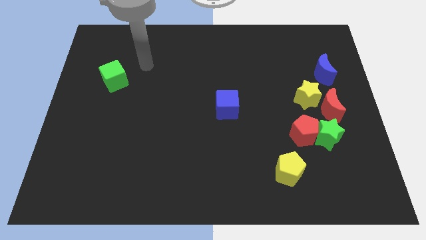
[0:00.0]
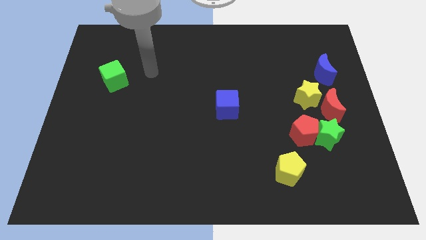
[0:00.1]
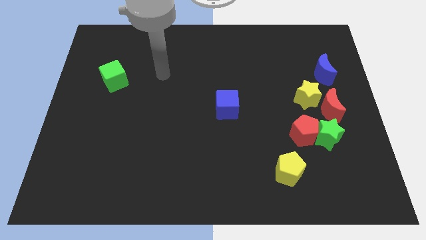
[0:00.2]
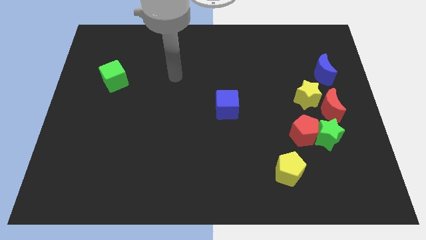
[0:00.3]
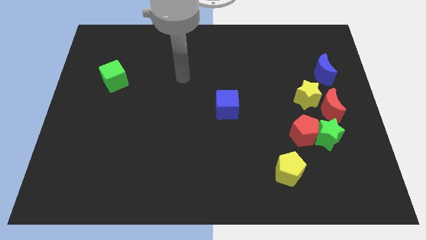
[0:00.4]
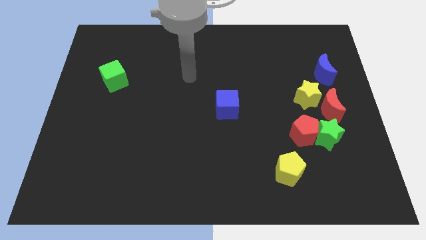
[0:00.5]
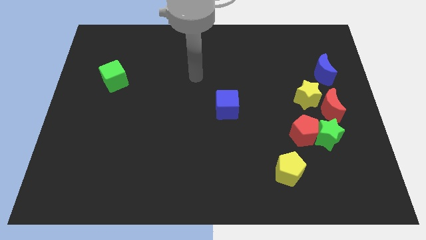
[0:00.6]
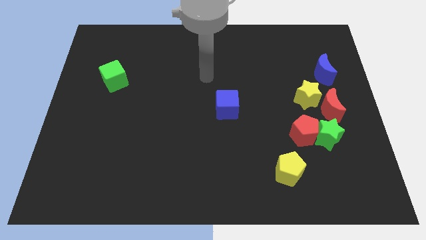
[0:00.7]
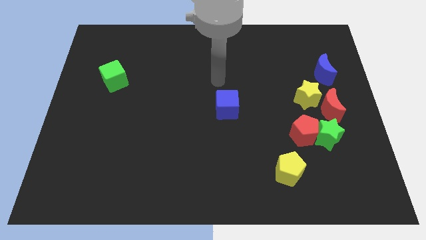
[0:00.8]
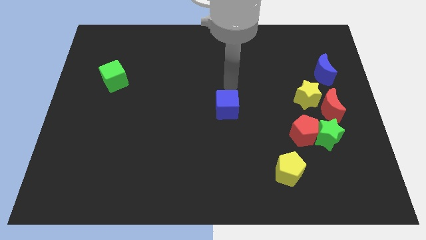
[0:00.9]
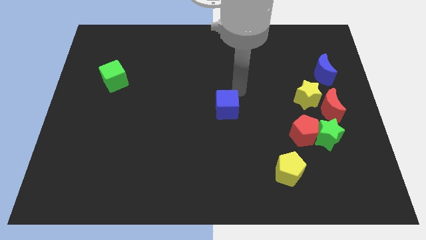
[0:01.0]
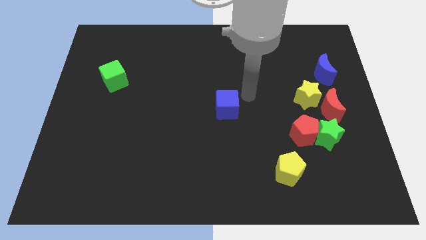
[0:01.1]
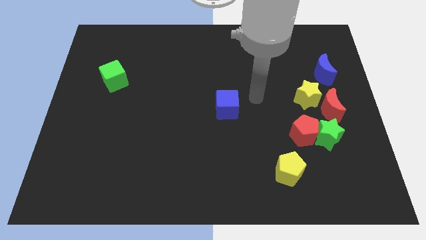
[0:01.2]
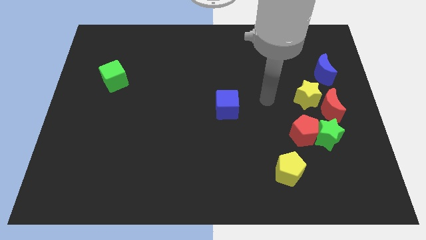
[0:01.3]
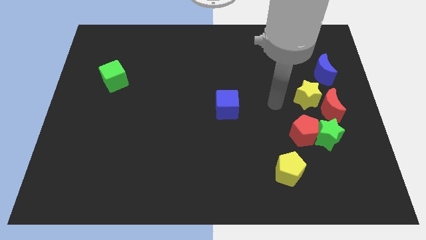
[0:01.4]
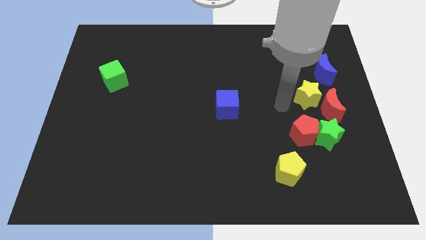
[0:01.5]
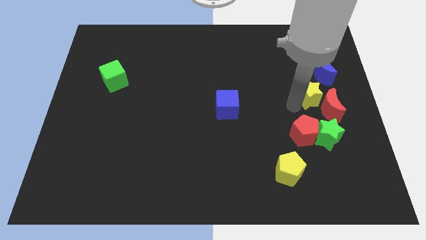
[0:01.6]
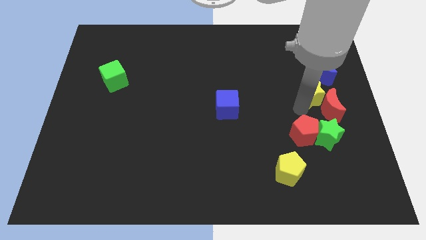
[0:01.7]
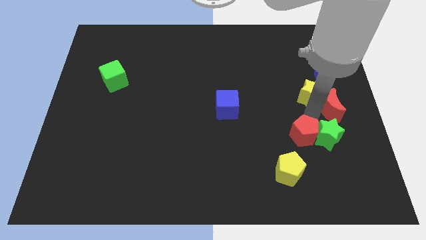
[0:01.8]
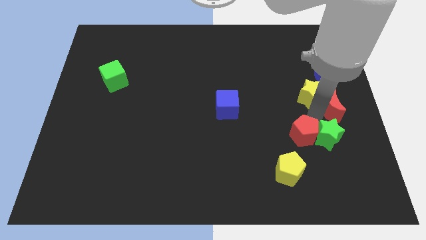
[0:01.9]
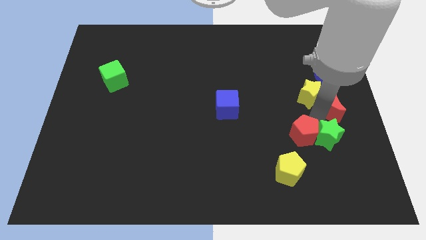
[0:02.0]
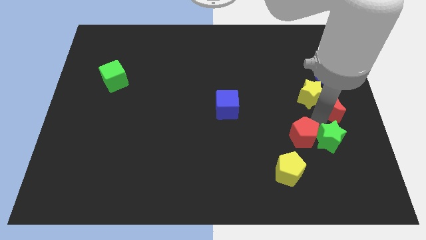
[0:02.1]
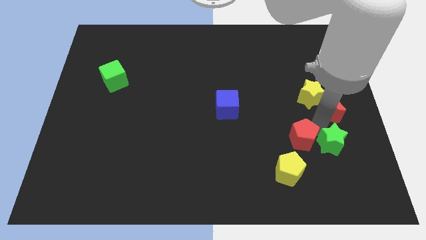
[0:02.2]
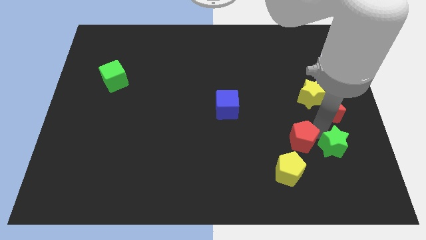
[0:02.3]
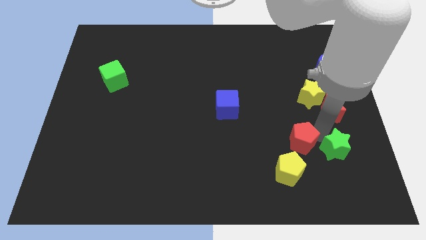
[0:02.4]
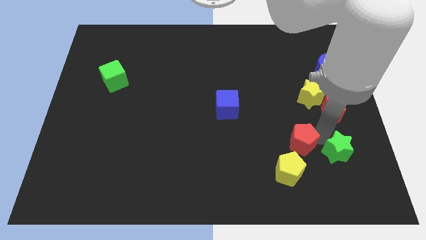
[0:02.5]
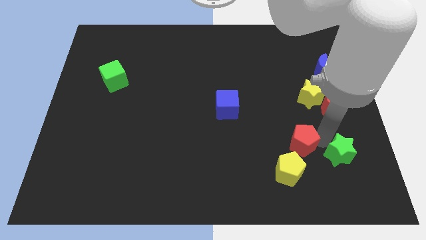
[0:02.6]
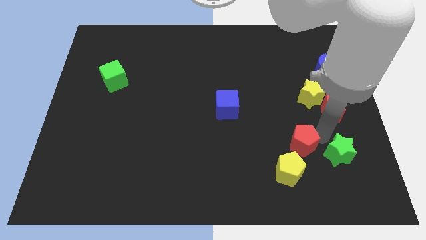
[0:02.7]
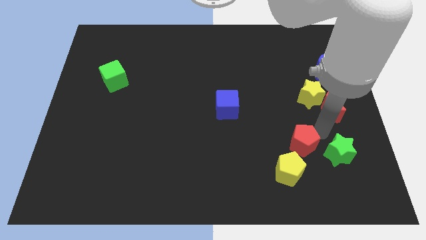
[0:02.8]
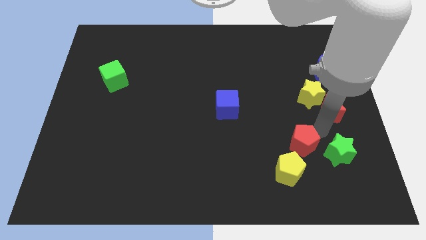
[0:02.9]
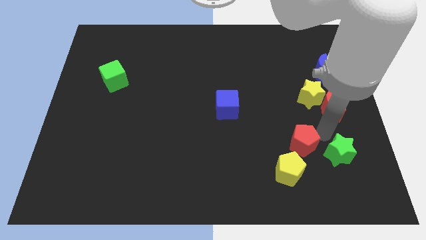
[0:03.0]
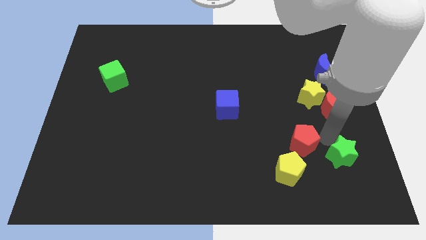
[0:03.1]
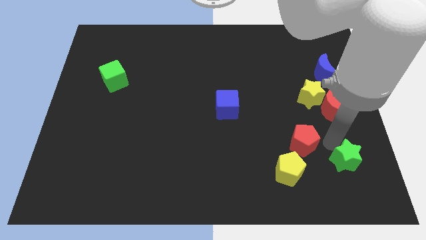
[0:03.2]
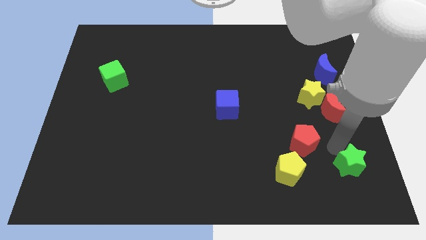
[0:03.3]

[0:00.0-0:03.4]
move the green star away from the red pentagon and red moon

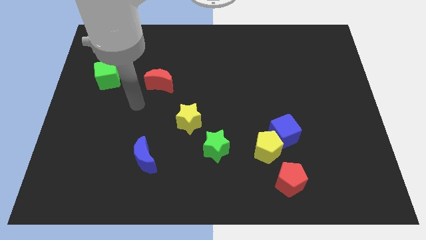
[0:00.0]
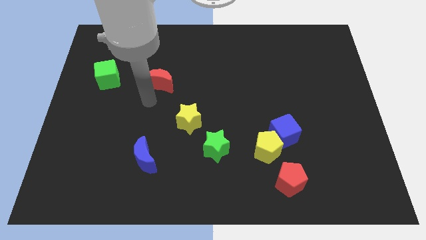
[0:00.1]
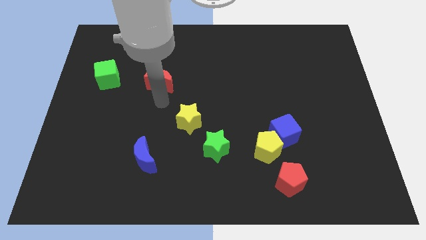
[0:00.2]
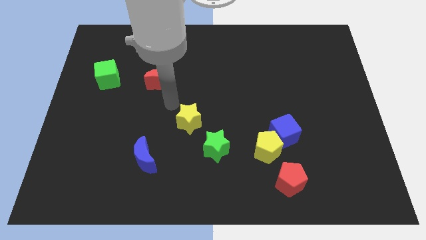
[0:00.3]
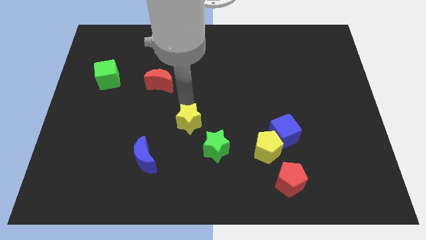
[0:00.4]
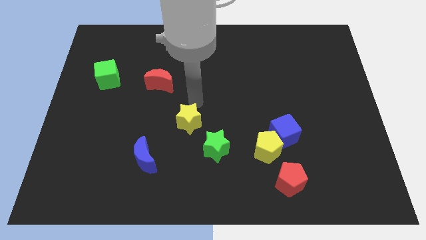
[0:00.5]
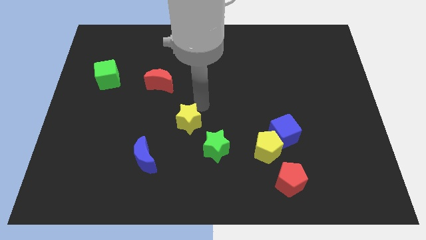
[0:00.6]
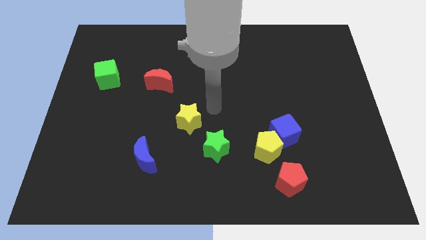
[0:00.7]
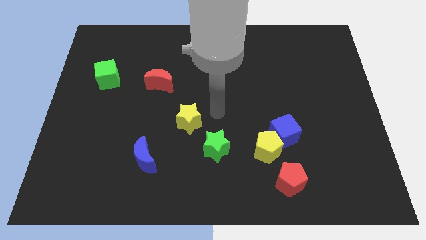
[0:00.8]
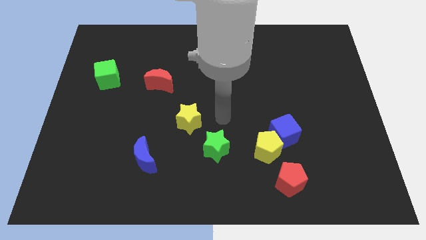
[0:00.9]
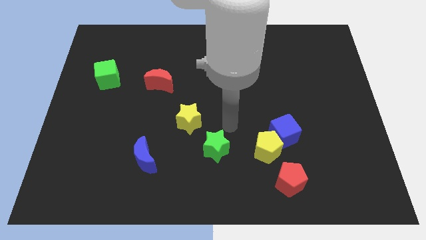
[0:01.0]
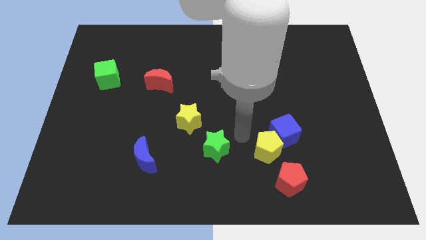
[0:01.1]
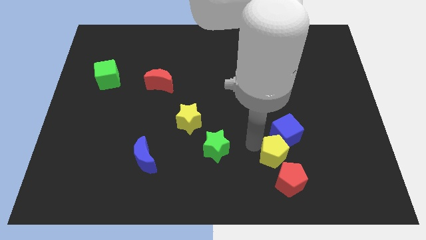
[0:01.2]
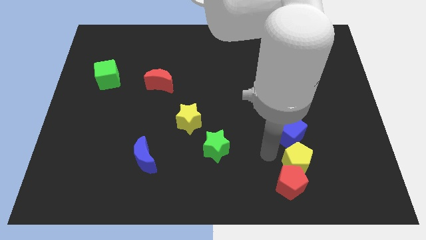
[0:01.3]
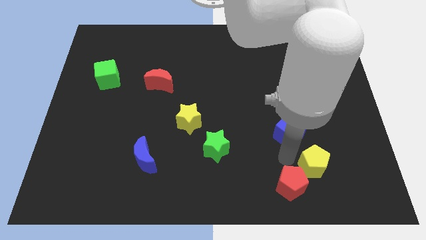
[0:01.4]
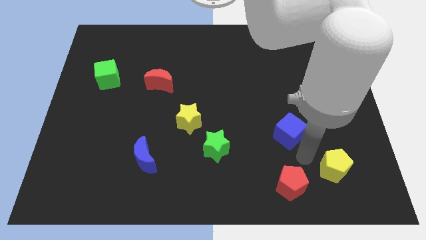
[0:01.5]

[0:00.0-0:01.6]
pull the blue cube apart from the yellow pentagon

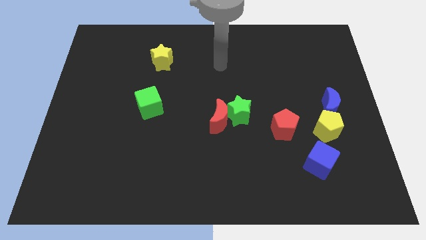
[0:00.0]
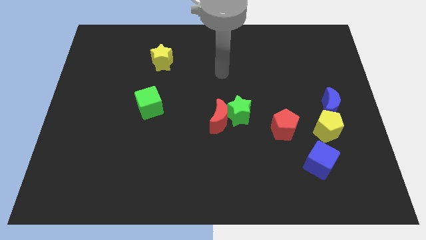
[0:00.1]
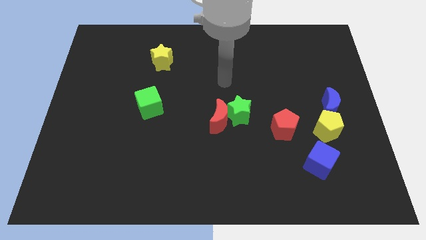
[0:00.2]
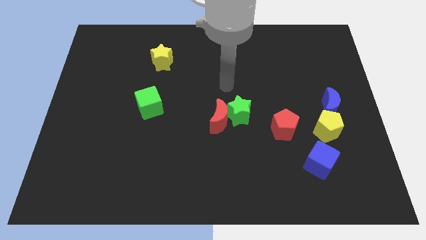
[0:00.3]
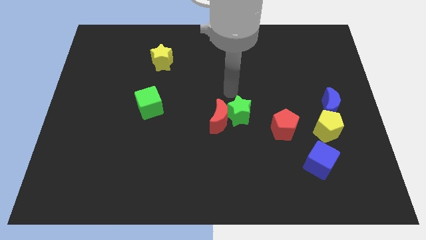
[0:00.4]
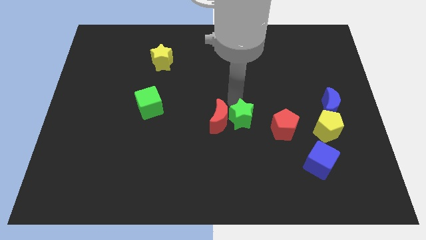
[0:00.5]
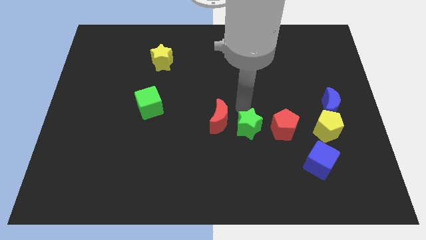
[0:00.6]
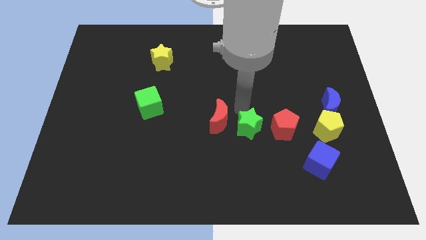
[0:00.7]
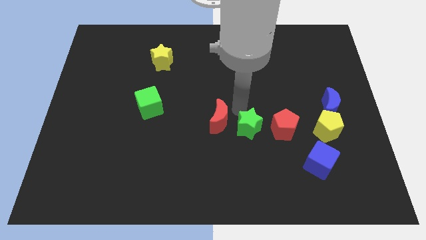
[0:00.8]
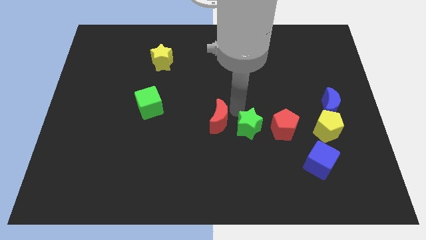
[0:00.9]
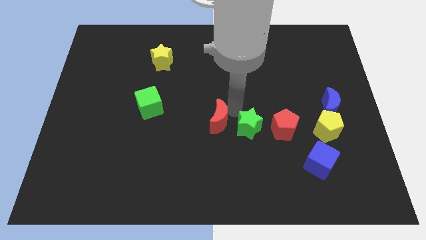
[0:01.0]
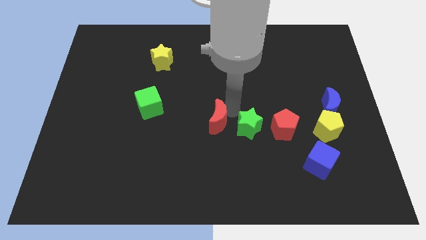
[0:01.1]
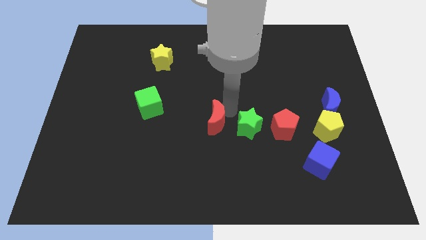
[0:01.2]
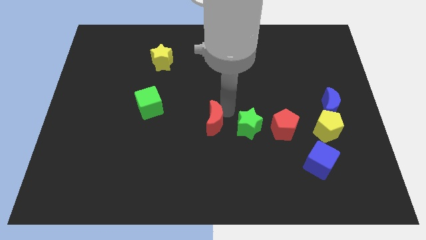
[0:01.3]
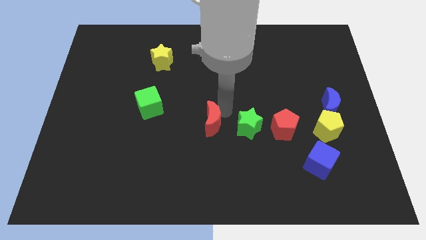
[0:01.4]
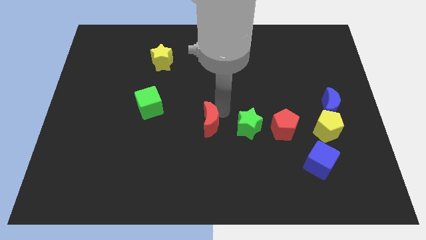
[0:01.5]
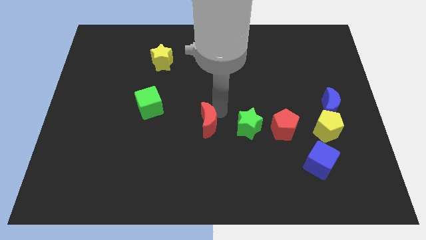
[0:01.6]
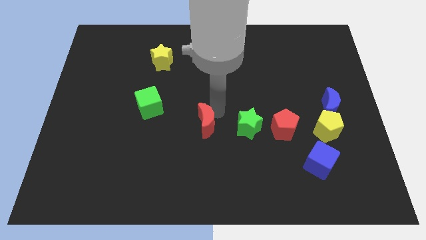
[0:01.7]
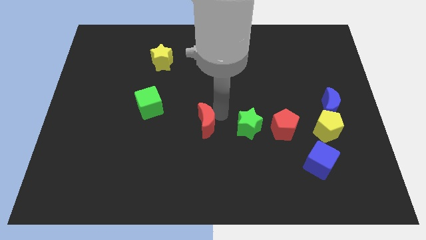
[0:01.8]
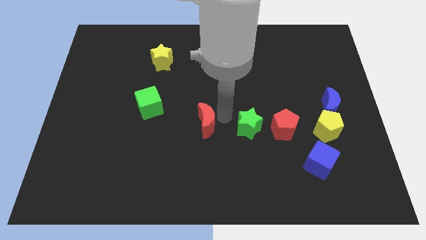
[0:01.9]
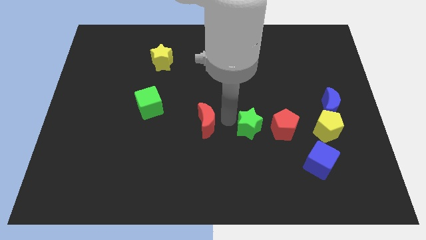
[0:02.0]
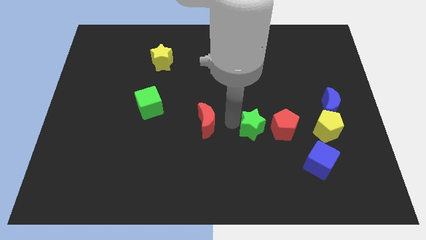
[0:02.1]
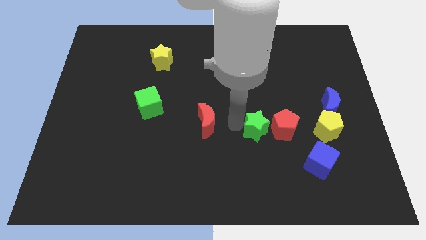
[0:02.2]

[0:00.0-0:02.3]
pull the red moon apart from the green star

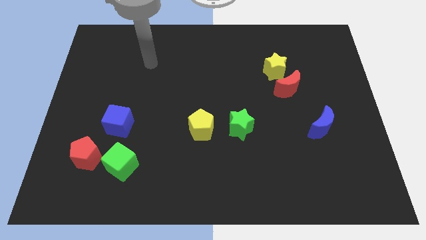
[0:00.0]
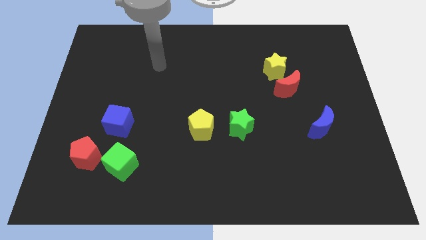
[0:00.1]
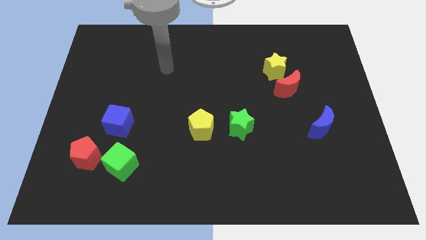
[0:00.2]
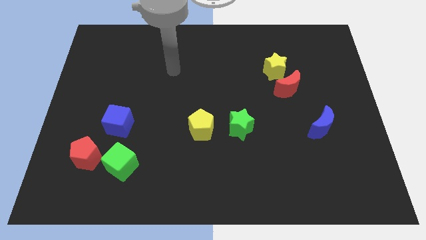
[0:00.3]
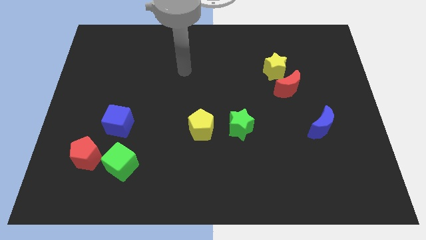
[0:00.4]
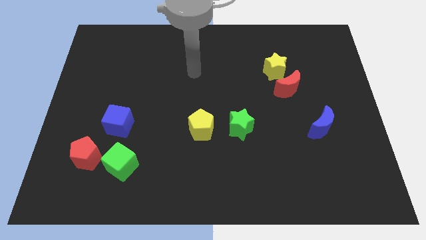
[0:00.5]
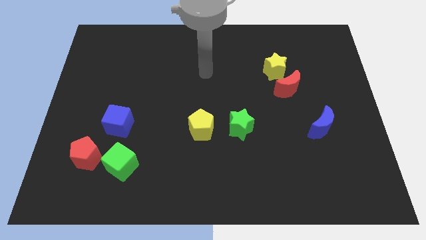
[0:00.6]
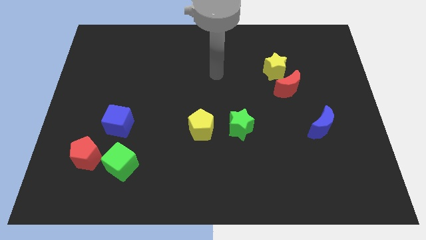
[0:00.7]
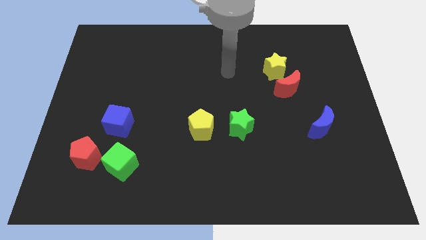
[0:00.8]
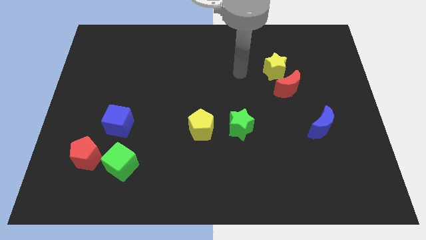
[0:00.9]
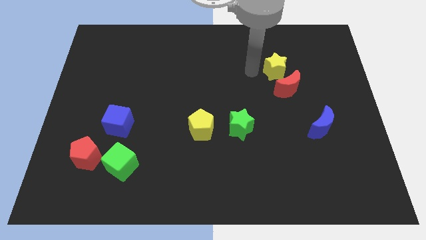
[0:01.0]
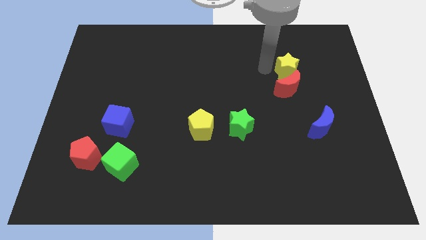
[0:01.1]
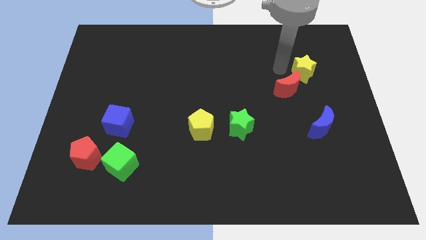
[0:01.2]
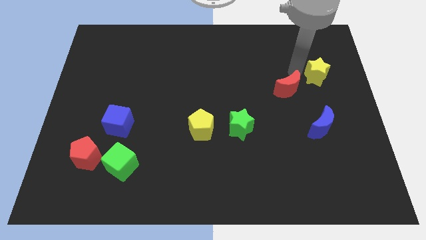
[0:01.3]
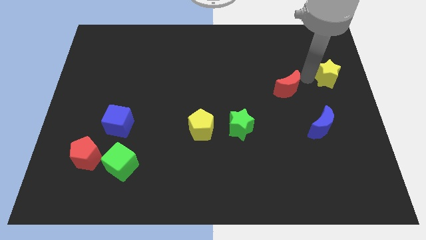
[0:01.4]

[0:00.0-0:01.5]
move the red moon away from the yellow star

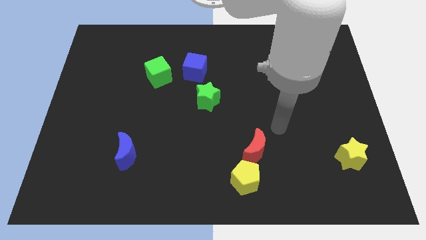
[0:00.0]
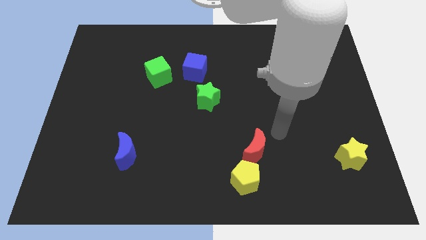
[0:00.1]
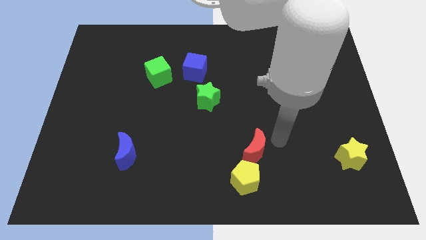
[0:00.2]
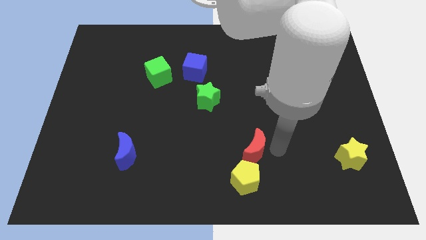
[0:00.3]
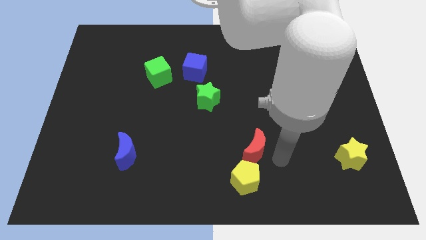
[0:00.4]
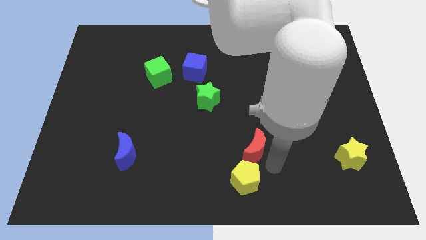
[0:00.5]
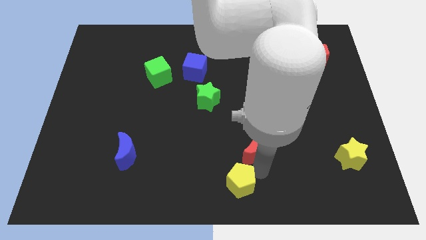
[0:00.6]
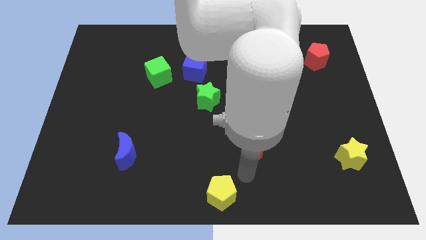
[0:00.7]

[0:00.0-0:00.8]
pull the red moon apart from the yellow pentagon
